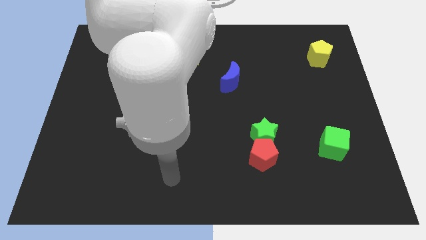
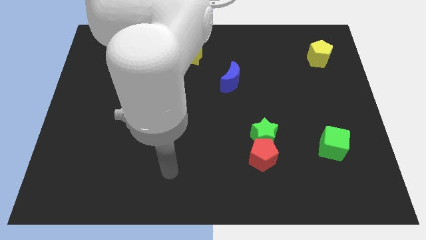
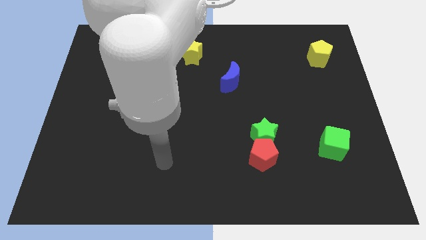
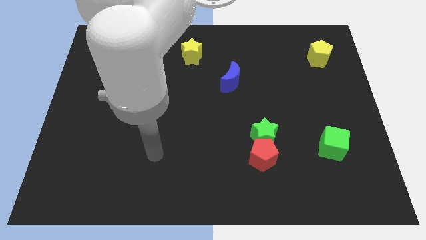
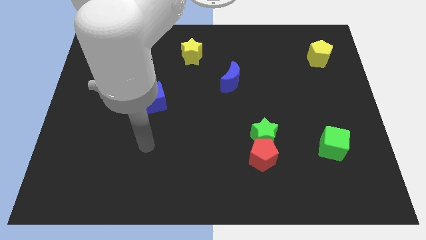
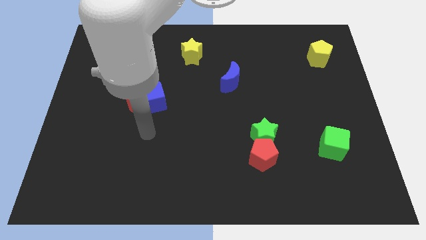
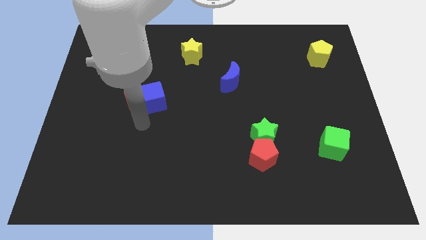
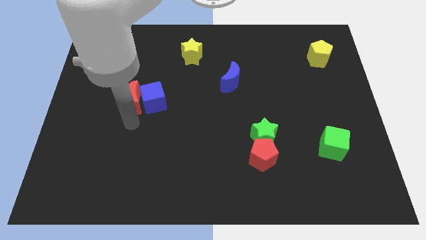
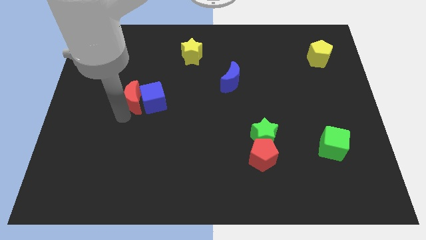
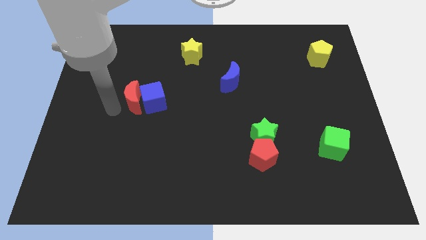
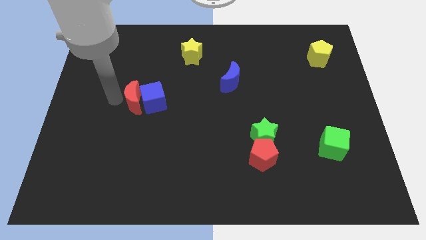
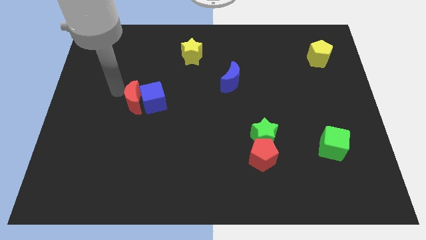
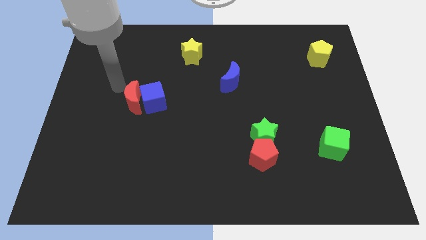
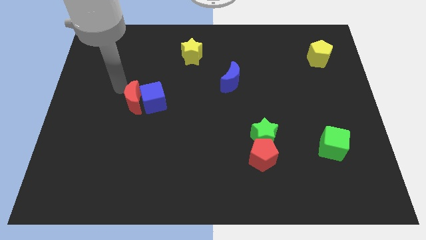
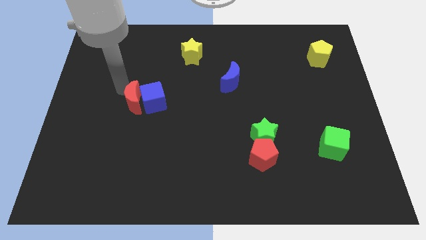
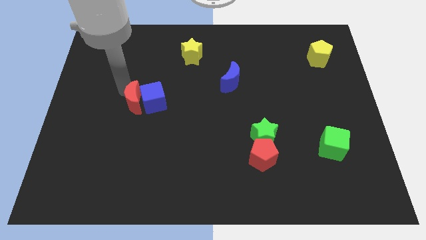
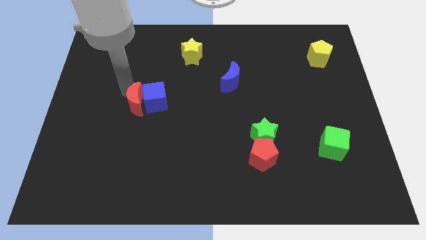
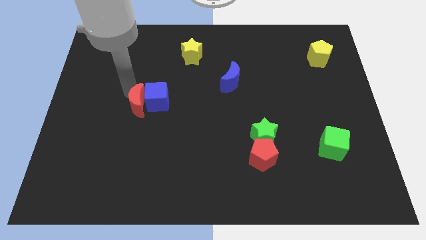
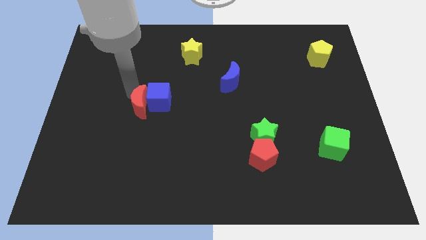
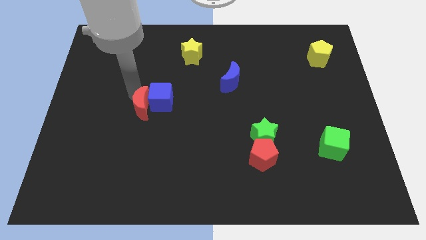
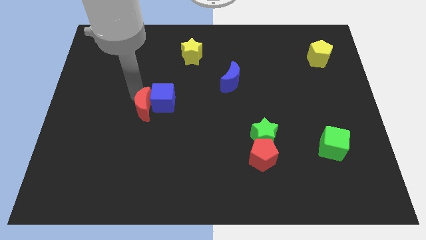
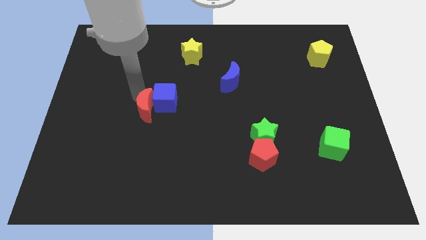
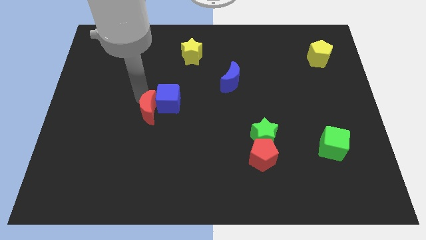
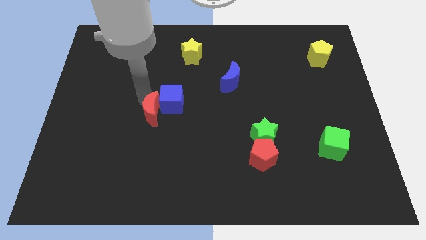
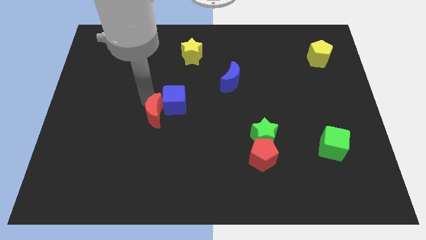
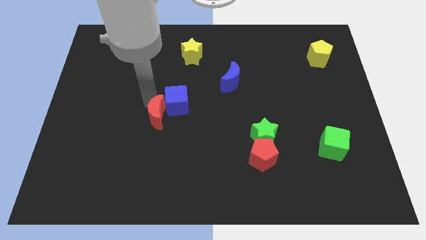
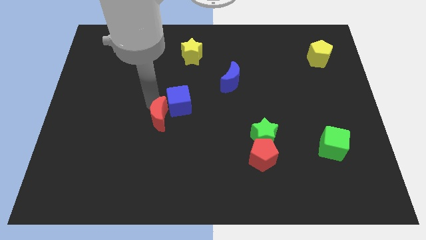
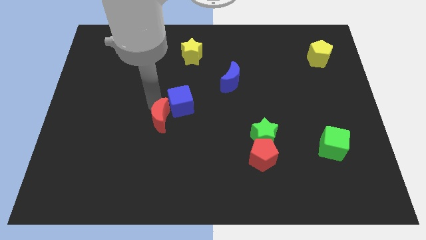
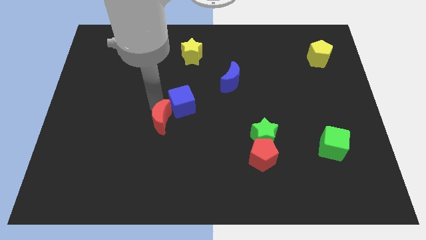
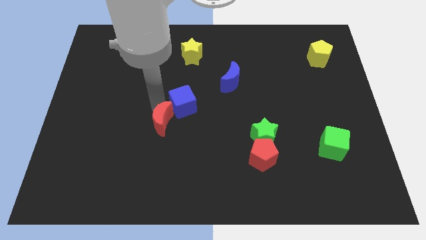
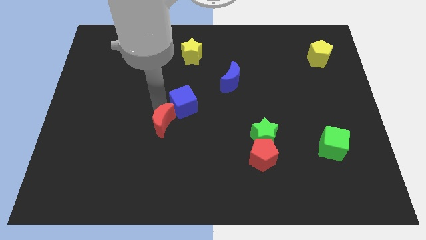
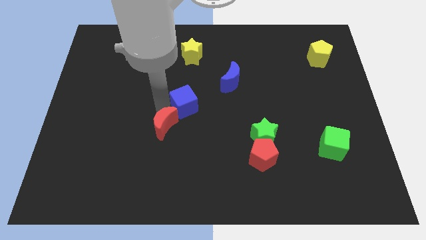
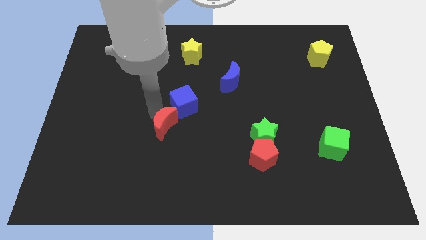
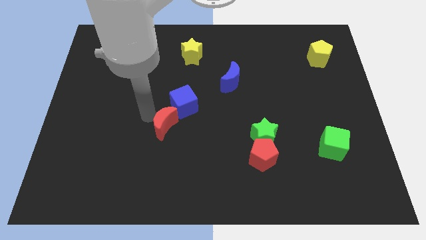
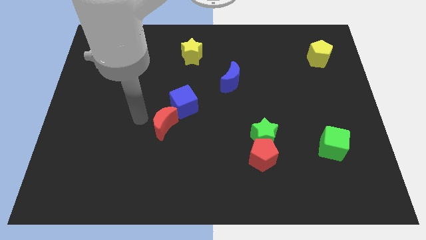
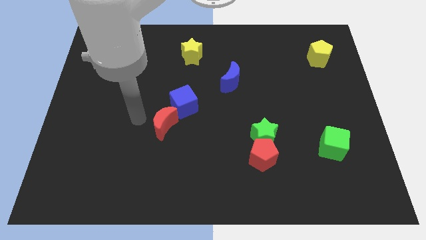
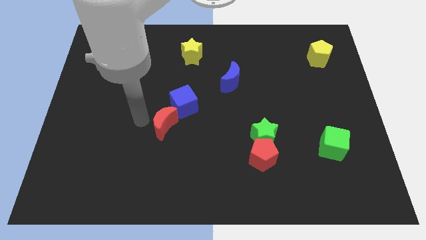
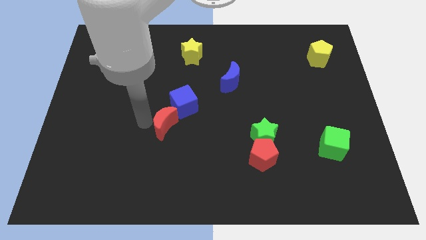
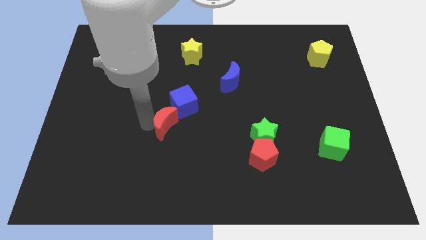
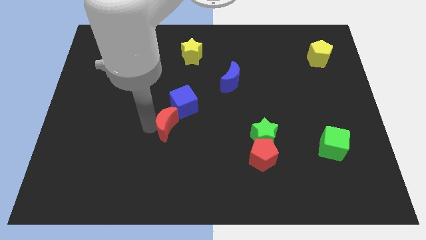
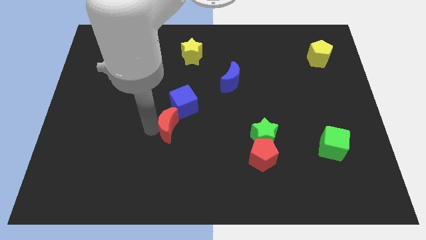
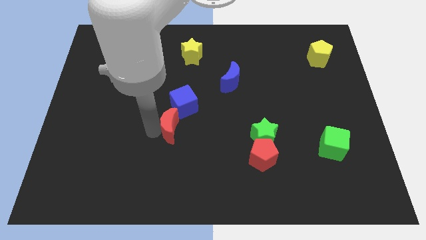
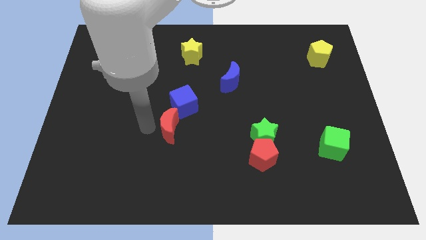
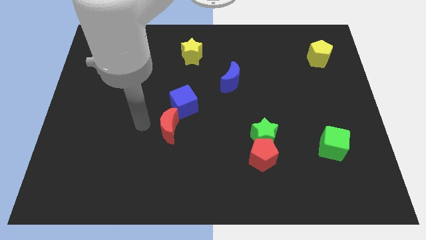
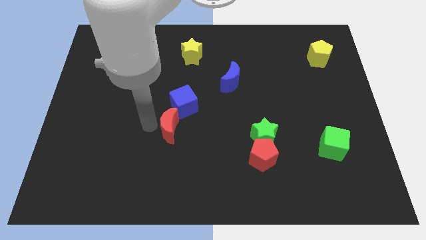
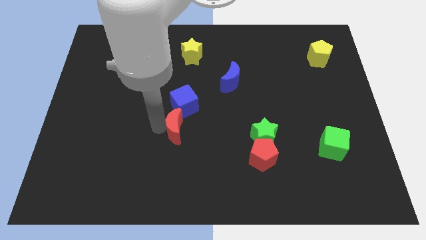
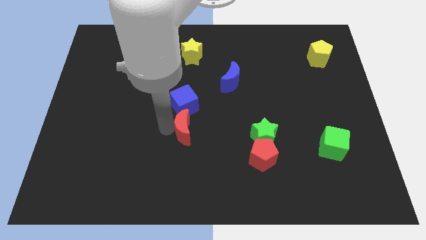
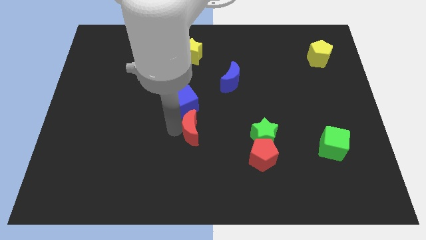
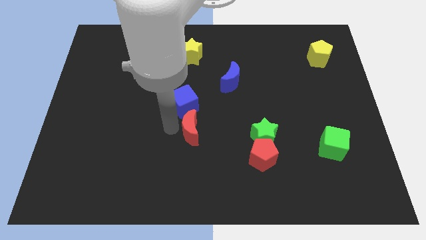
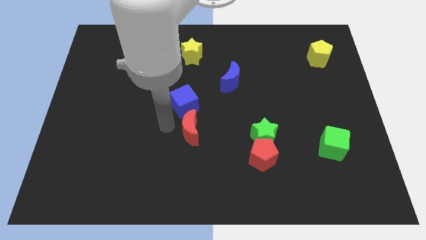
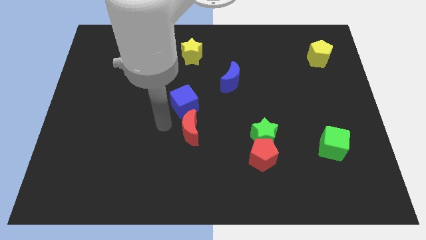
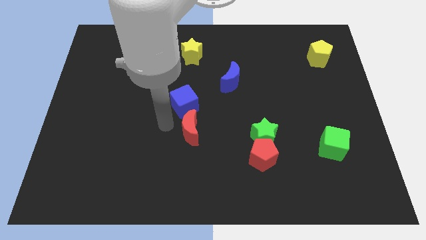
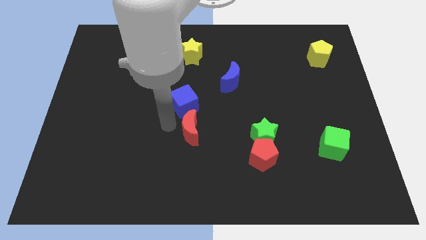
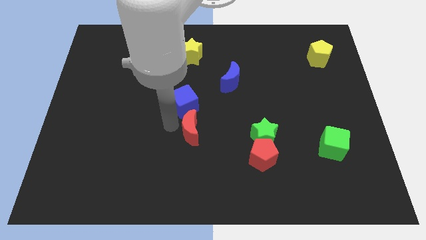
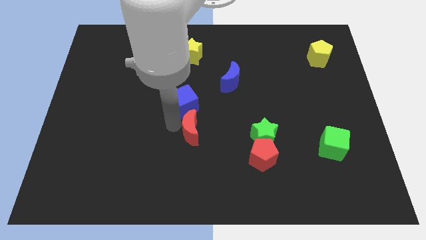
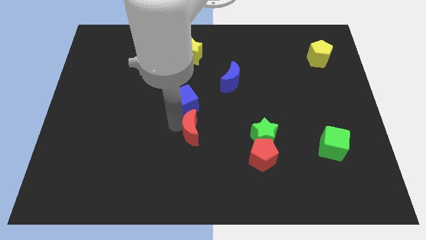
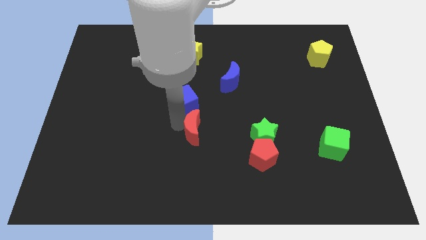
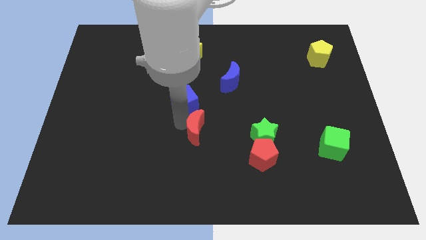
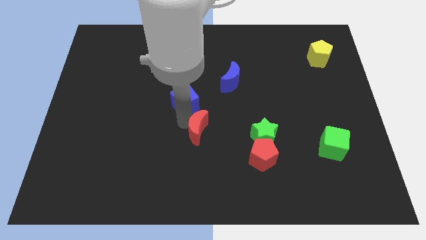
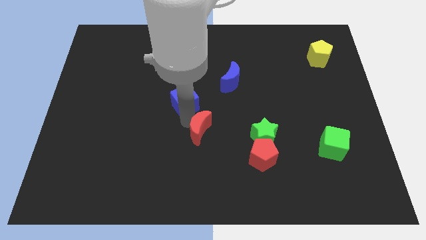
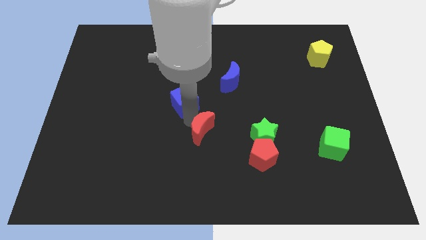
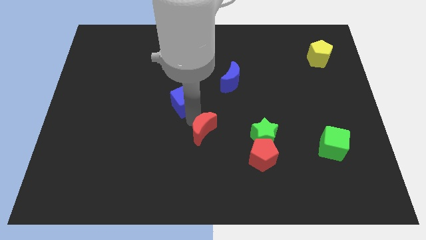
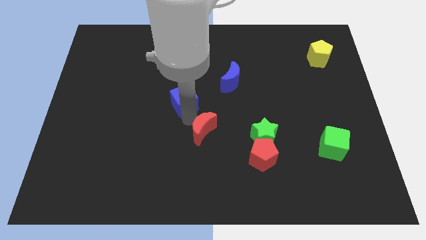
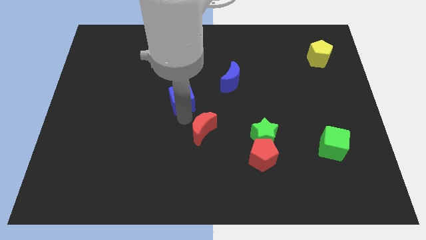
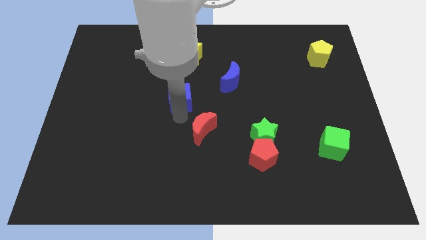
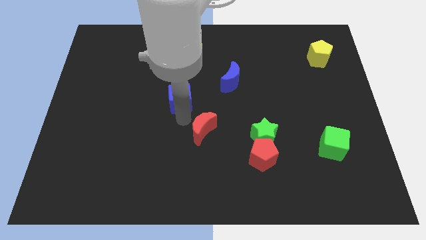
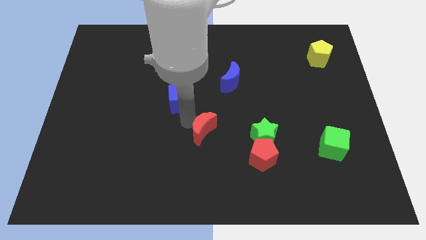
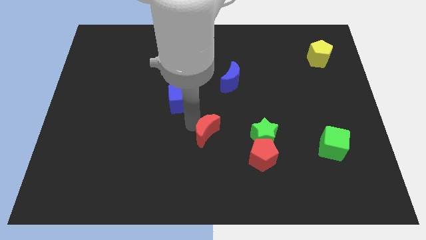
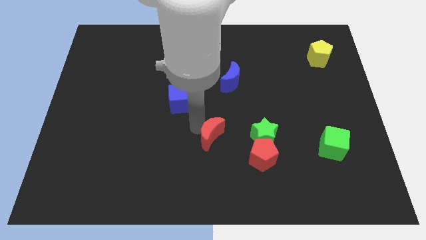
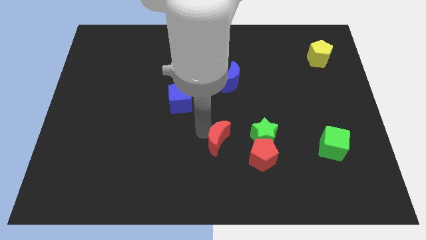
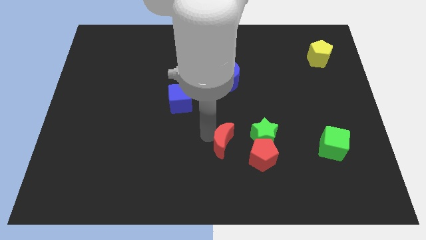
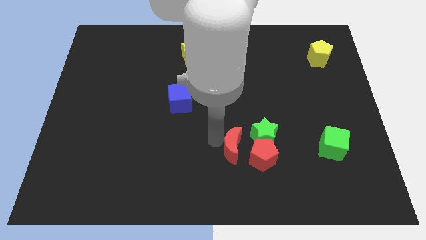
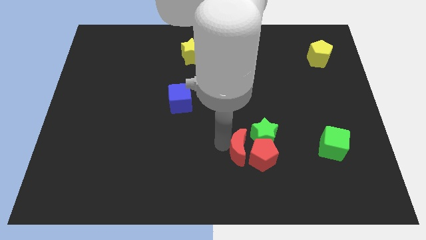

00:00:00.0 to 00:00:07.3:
slide the red moon next to the red pentagon
